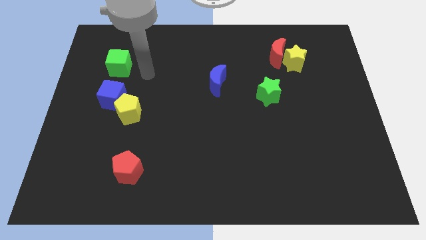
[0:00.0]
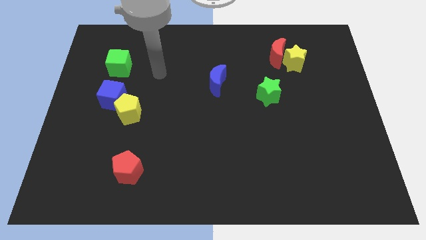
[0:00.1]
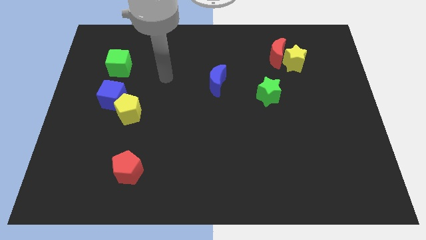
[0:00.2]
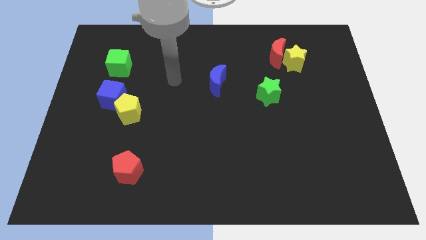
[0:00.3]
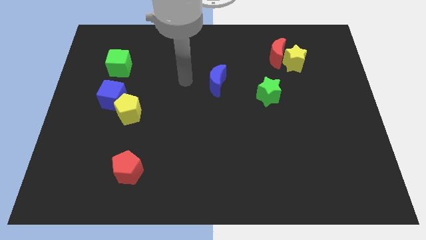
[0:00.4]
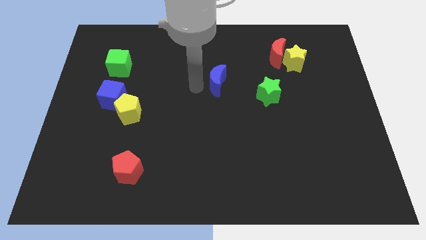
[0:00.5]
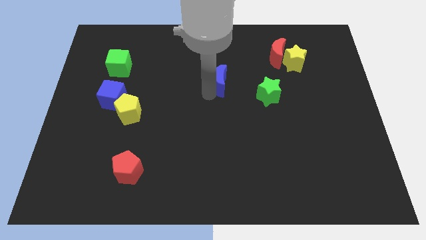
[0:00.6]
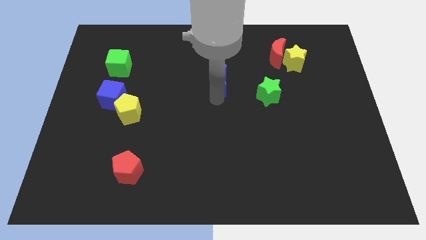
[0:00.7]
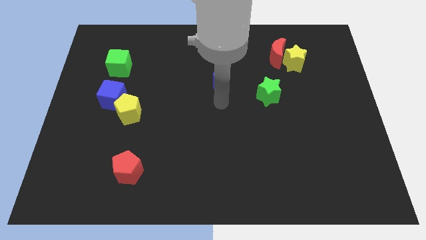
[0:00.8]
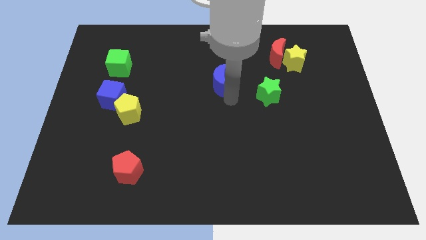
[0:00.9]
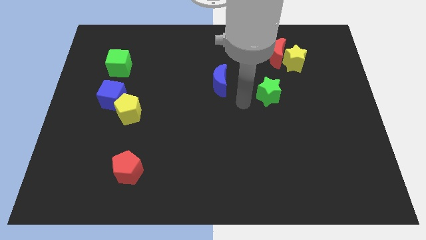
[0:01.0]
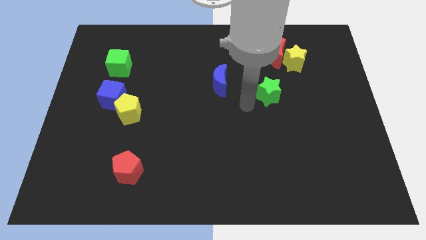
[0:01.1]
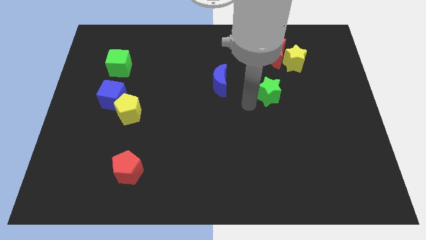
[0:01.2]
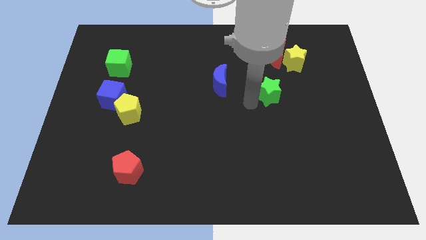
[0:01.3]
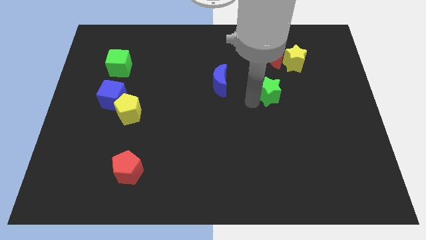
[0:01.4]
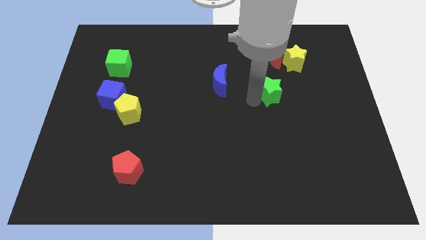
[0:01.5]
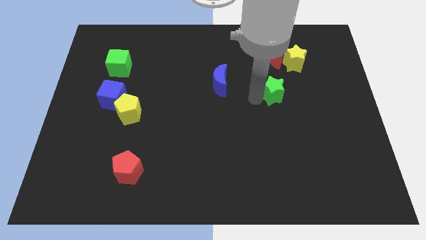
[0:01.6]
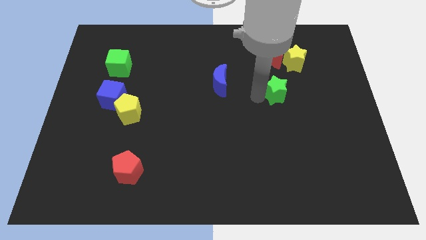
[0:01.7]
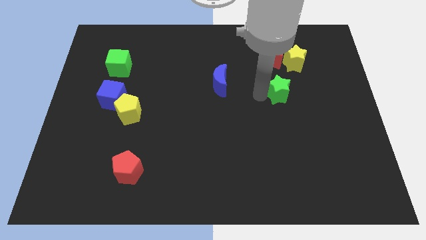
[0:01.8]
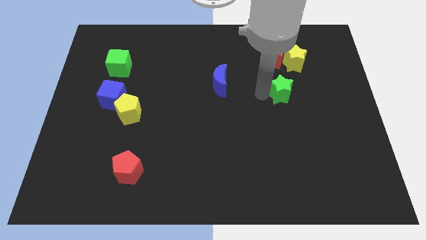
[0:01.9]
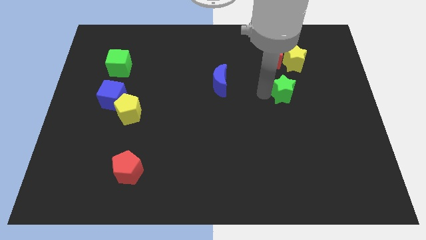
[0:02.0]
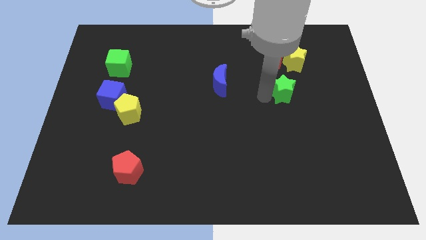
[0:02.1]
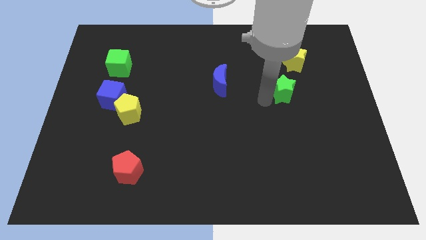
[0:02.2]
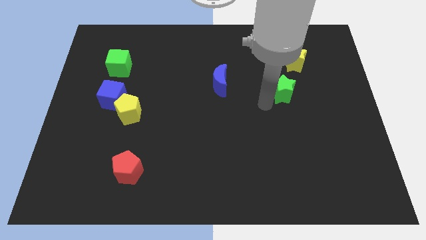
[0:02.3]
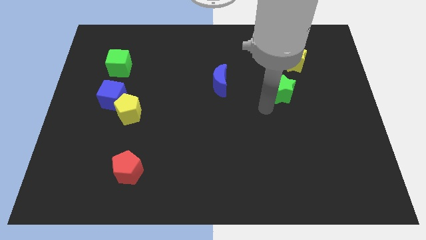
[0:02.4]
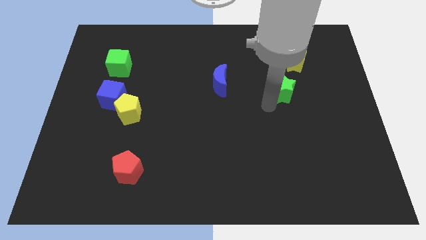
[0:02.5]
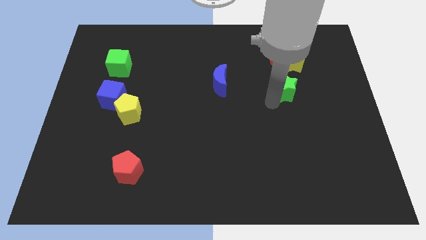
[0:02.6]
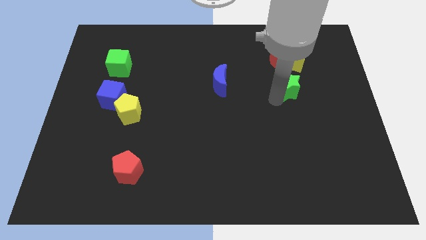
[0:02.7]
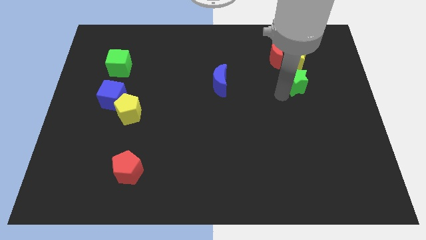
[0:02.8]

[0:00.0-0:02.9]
slightly move the green star upwards and right

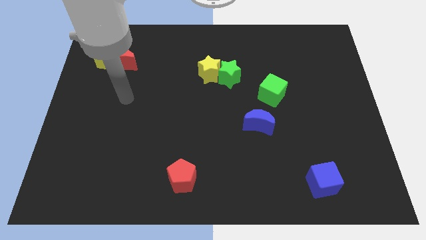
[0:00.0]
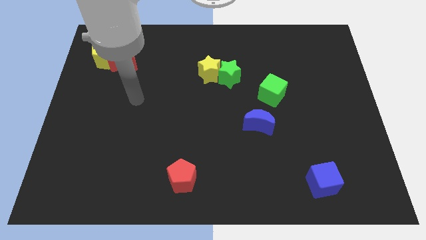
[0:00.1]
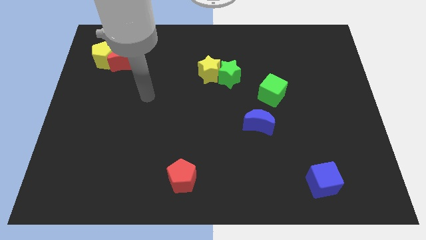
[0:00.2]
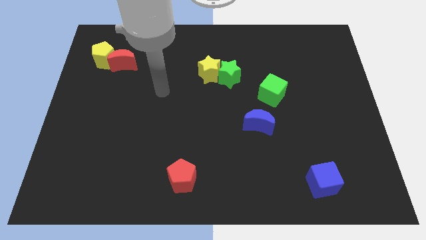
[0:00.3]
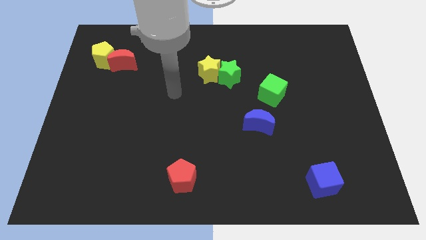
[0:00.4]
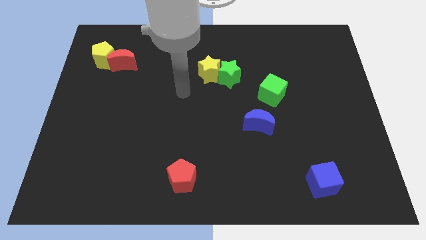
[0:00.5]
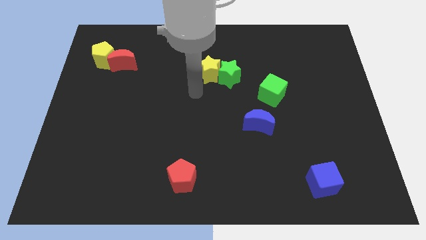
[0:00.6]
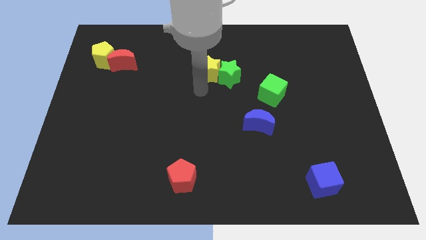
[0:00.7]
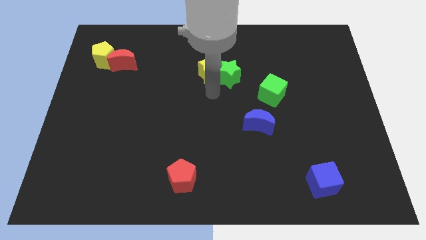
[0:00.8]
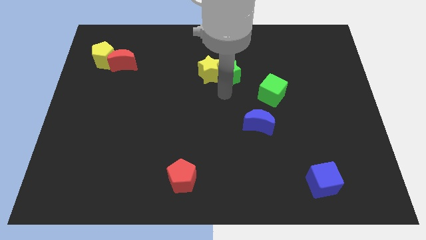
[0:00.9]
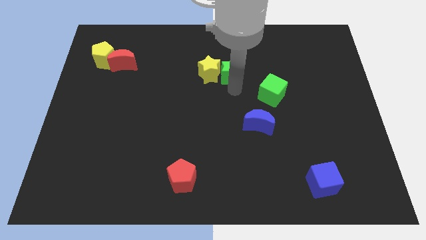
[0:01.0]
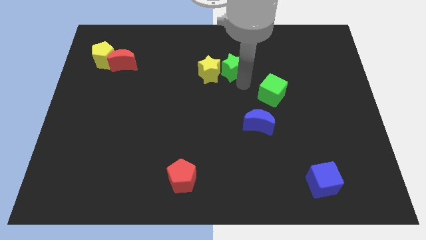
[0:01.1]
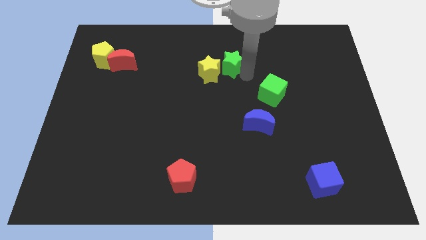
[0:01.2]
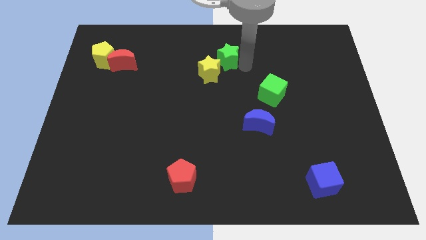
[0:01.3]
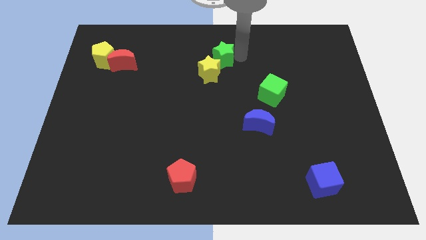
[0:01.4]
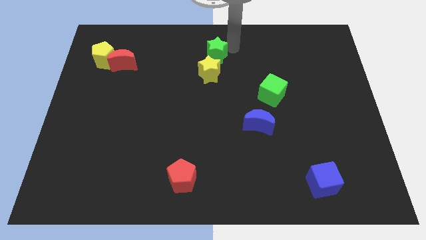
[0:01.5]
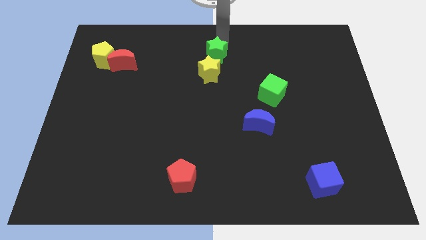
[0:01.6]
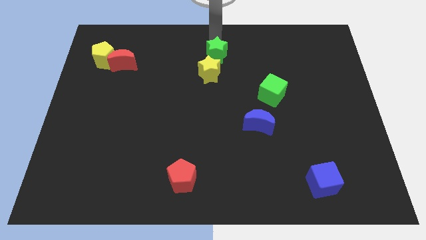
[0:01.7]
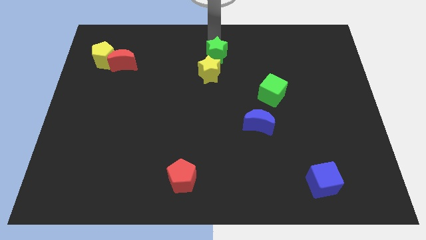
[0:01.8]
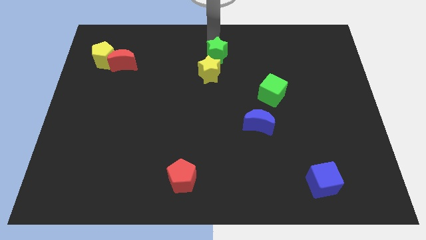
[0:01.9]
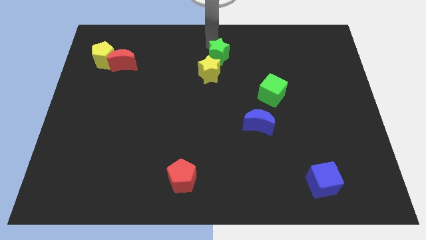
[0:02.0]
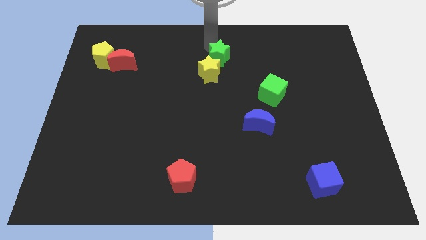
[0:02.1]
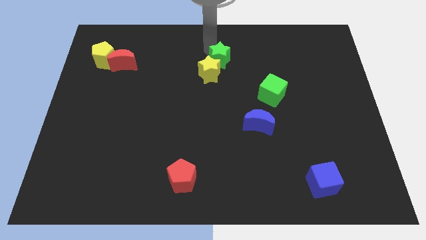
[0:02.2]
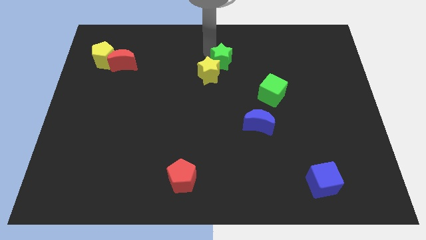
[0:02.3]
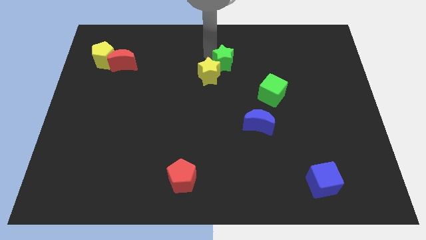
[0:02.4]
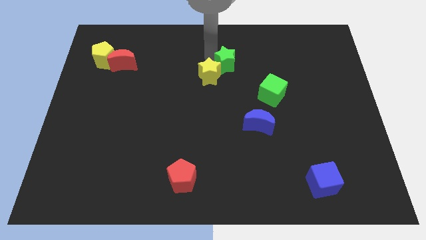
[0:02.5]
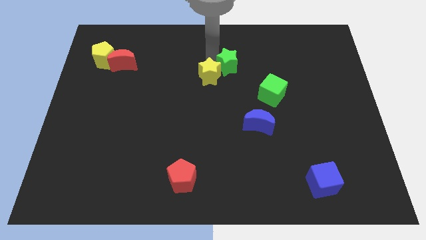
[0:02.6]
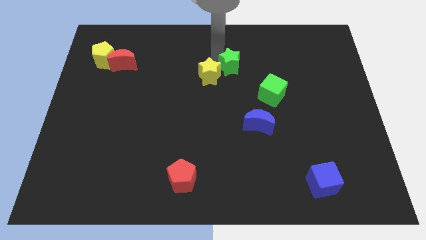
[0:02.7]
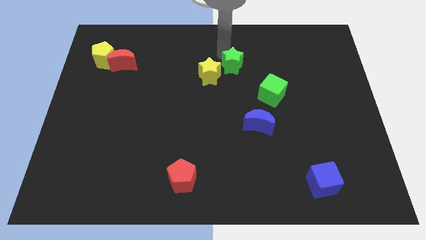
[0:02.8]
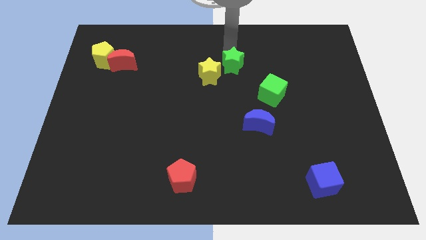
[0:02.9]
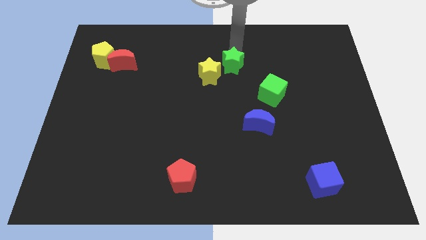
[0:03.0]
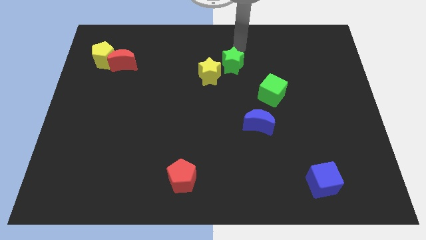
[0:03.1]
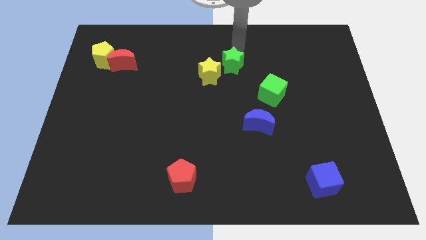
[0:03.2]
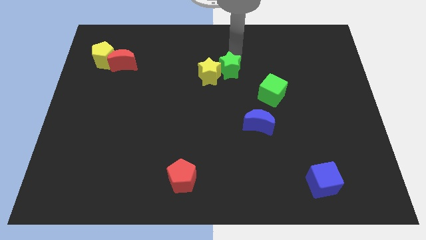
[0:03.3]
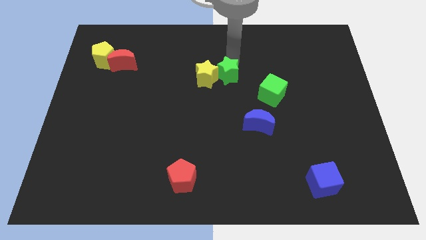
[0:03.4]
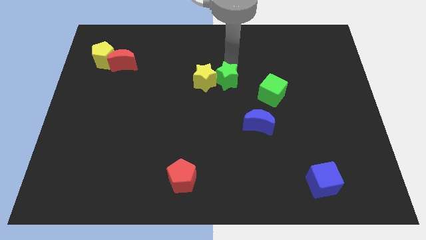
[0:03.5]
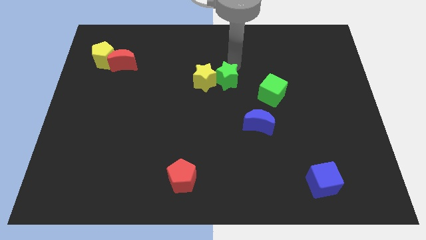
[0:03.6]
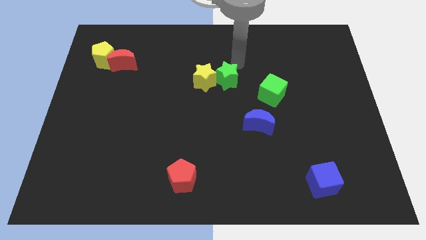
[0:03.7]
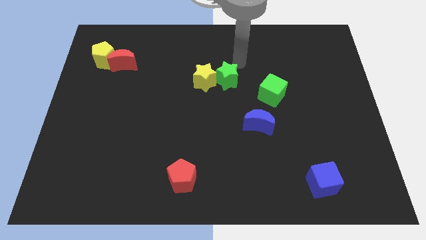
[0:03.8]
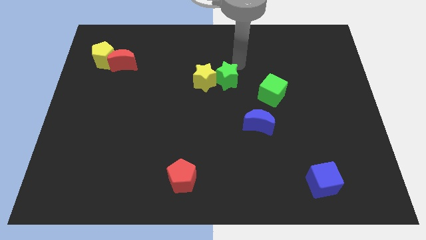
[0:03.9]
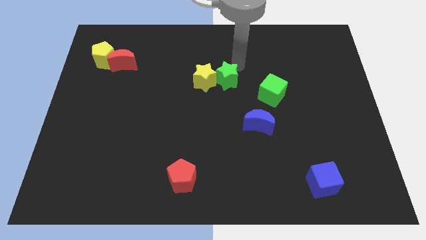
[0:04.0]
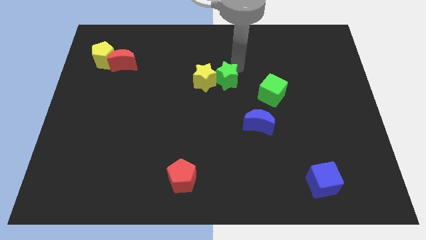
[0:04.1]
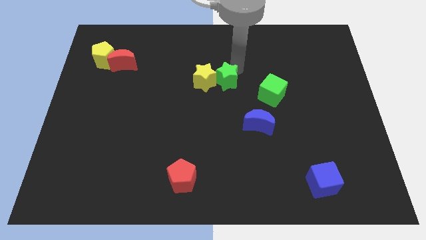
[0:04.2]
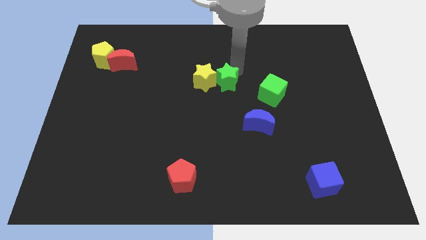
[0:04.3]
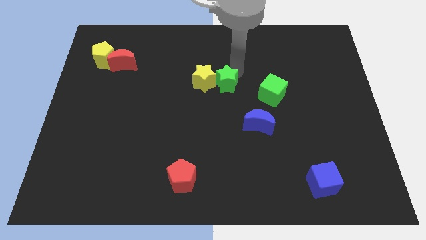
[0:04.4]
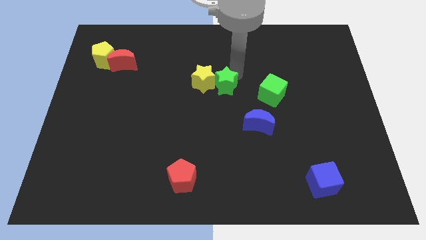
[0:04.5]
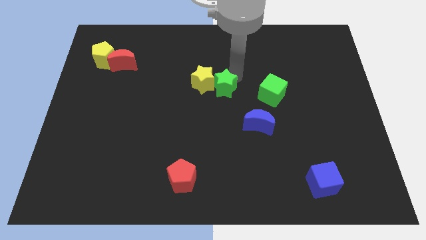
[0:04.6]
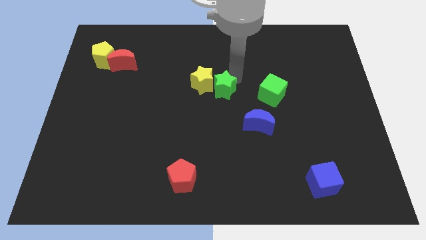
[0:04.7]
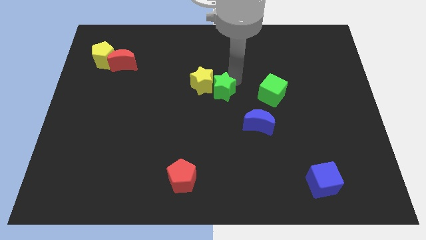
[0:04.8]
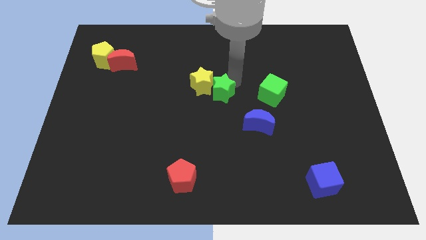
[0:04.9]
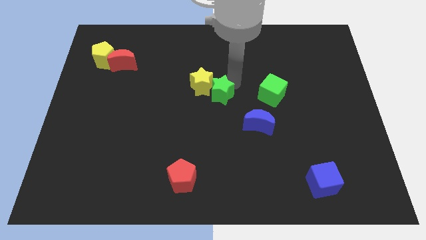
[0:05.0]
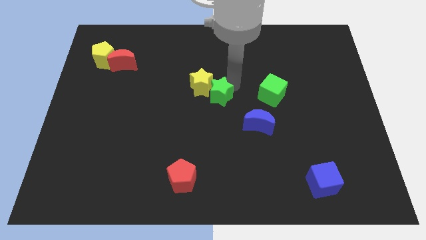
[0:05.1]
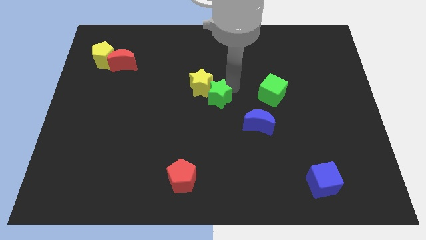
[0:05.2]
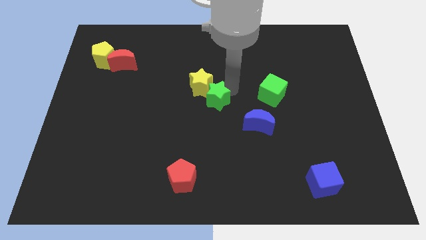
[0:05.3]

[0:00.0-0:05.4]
push the green star downwards and left a little

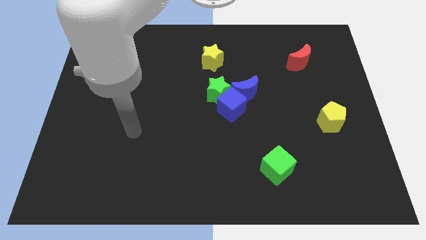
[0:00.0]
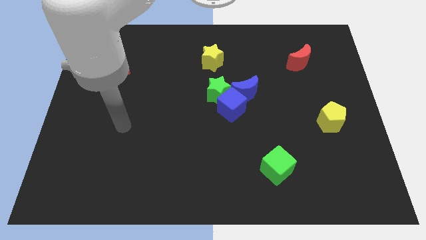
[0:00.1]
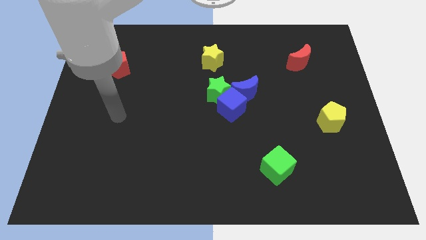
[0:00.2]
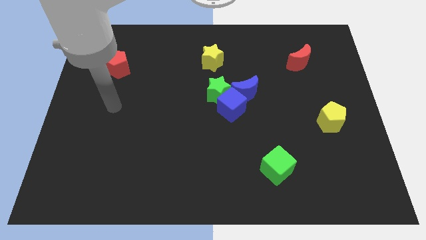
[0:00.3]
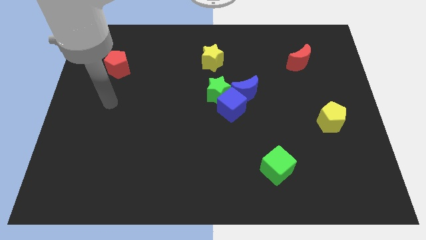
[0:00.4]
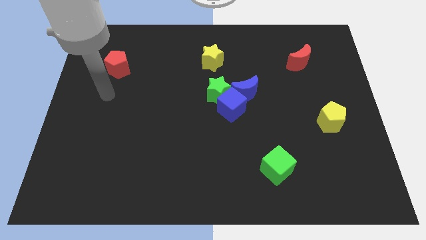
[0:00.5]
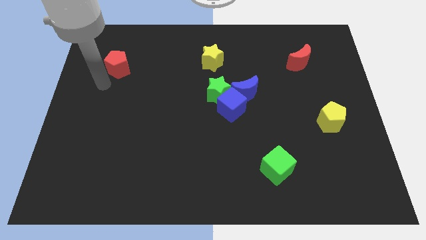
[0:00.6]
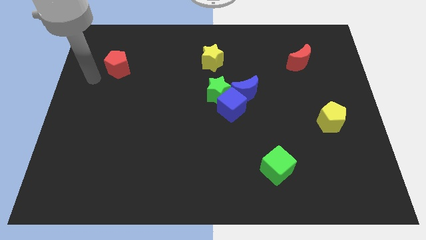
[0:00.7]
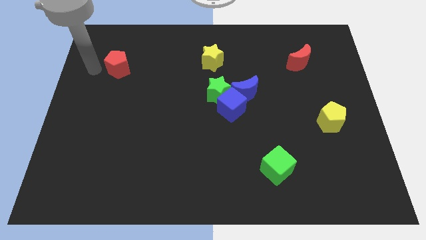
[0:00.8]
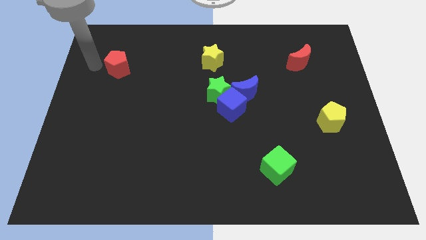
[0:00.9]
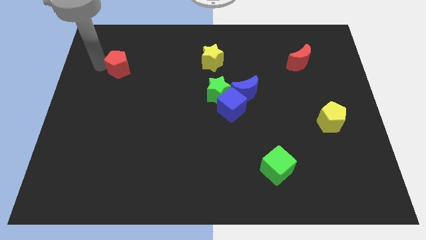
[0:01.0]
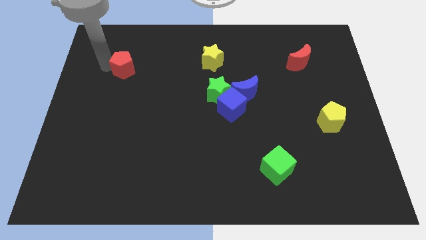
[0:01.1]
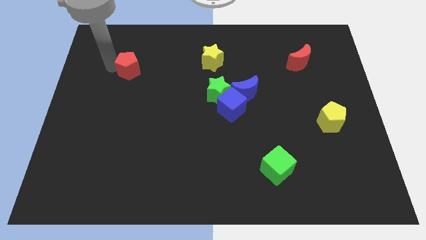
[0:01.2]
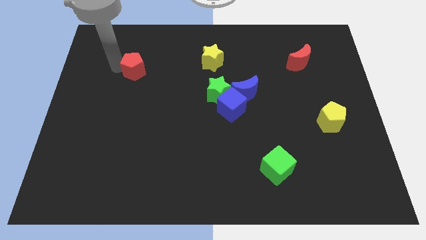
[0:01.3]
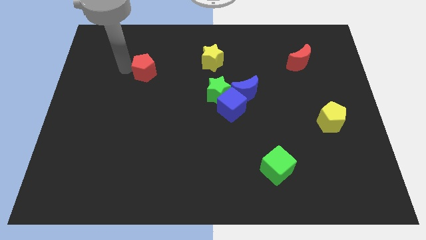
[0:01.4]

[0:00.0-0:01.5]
move the red pentagon right somewhat
